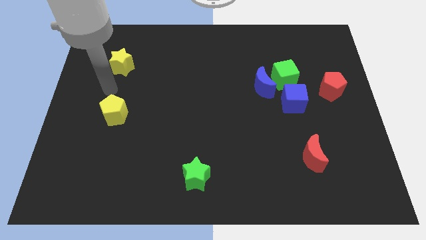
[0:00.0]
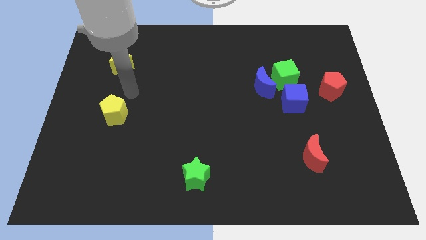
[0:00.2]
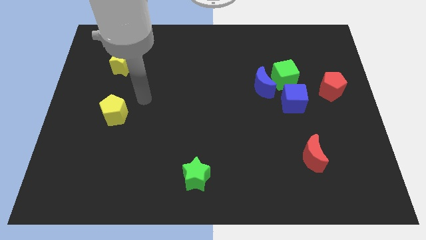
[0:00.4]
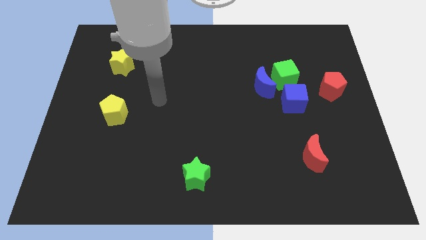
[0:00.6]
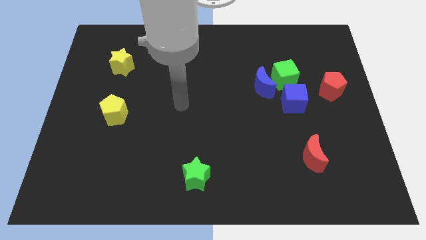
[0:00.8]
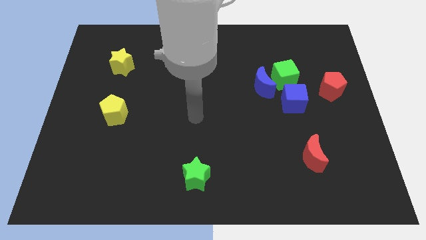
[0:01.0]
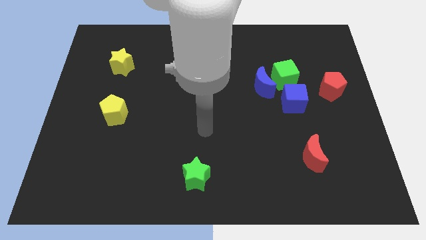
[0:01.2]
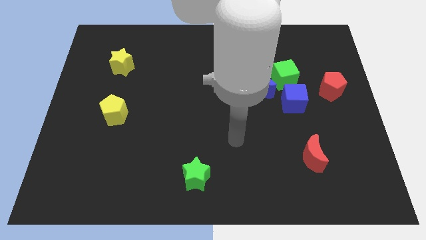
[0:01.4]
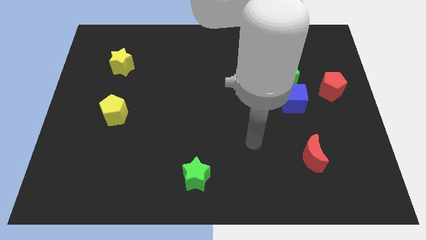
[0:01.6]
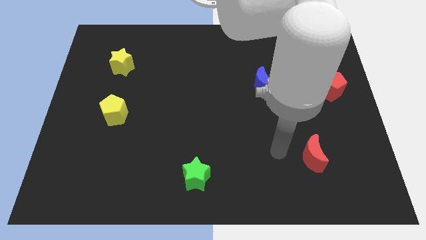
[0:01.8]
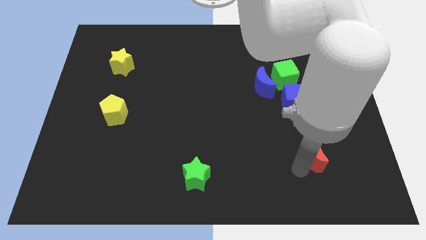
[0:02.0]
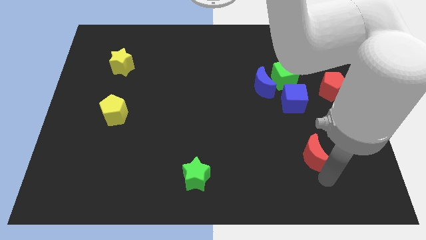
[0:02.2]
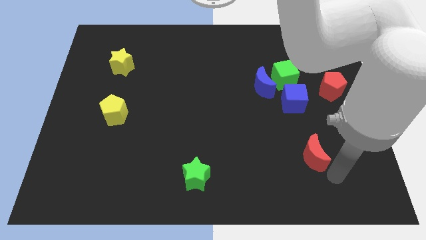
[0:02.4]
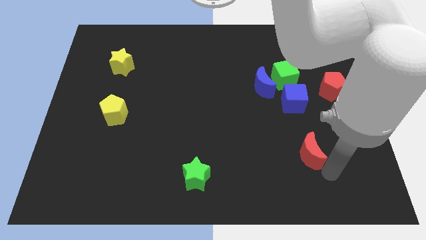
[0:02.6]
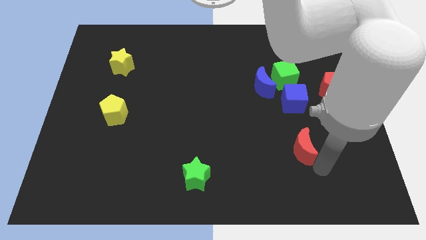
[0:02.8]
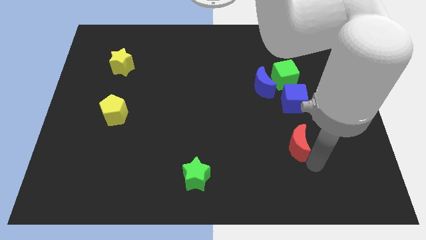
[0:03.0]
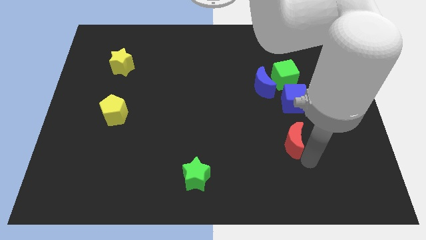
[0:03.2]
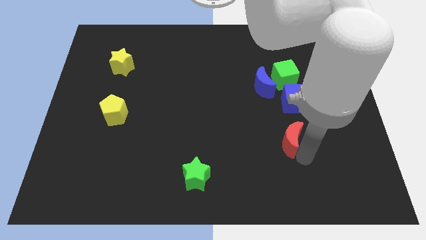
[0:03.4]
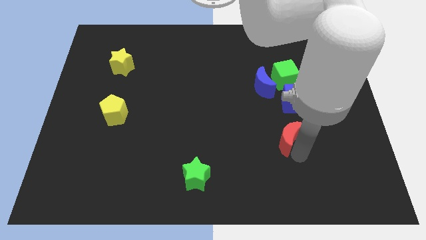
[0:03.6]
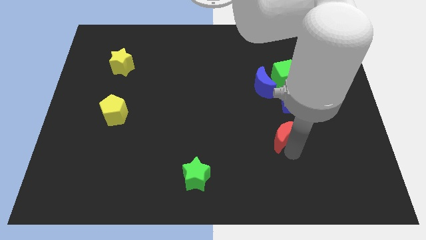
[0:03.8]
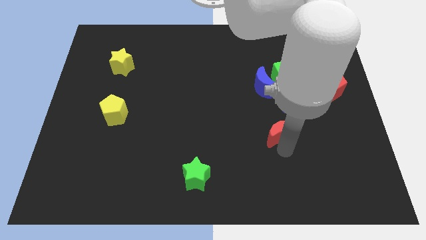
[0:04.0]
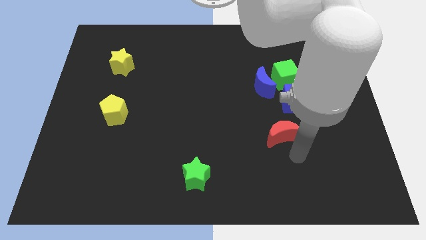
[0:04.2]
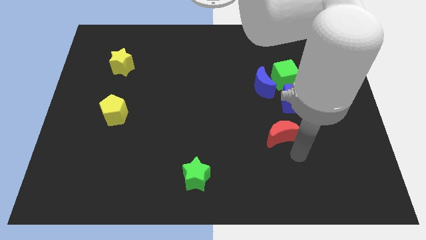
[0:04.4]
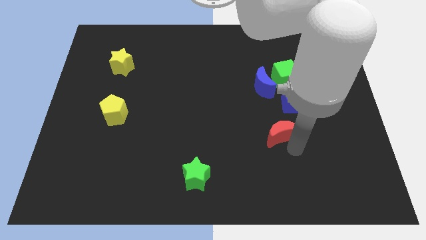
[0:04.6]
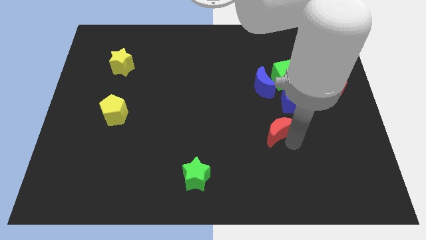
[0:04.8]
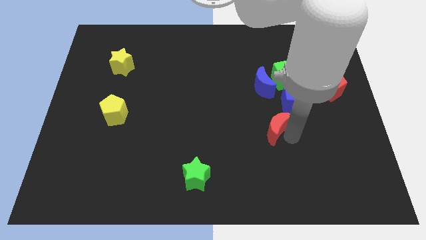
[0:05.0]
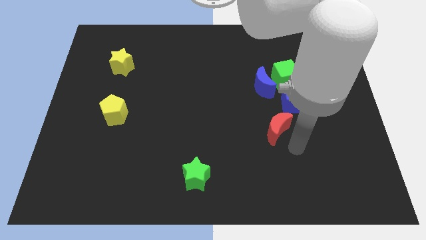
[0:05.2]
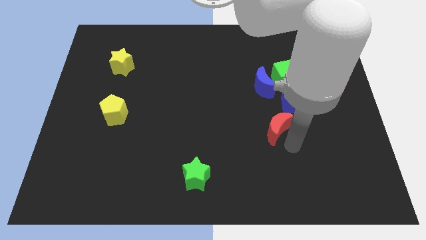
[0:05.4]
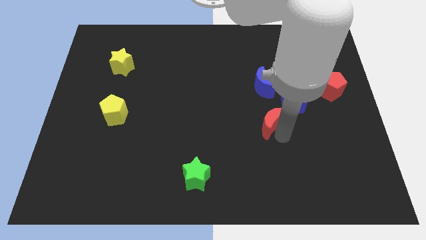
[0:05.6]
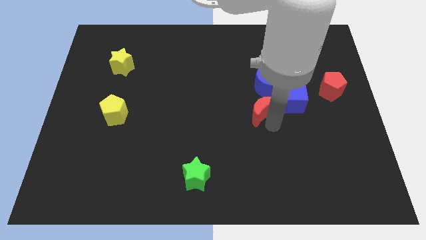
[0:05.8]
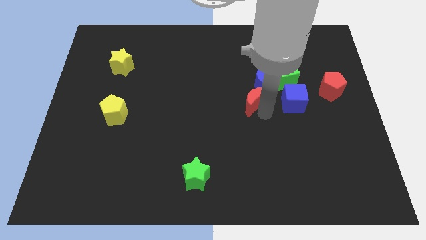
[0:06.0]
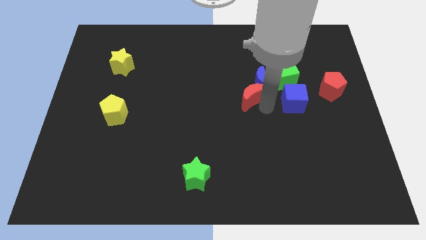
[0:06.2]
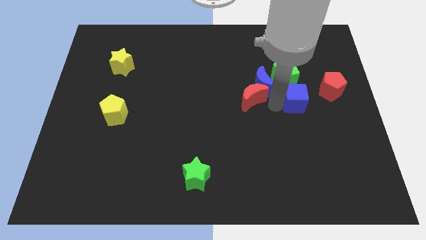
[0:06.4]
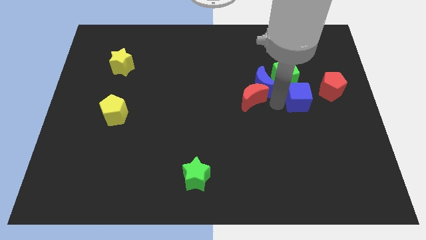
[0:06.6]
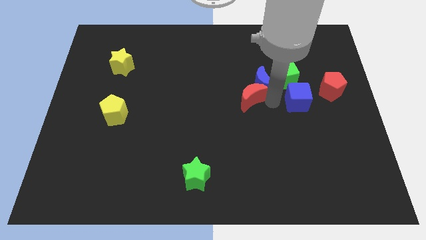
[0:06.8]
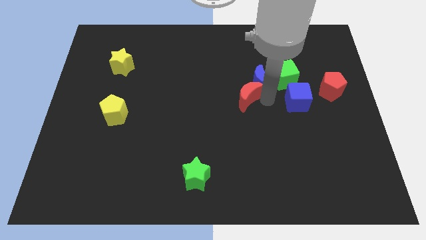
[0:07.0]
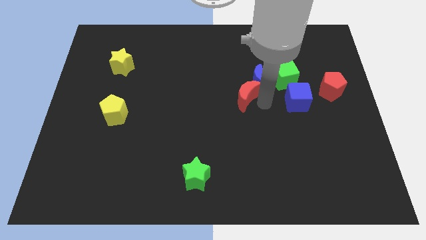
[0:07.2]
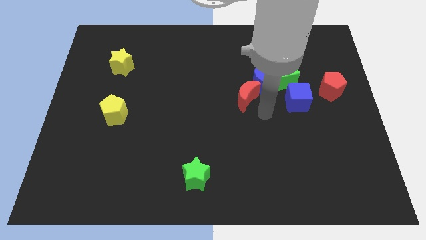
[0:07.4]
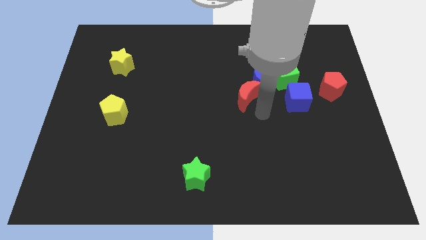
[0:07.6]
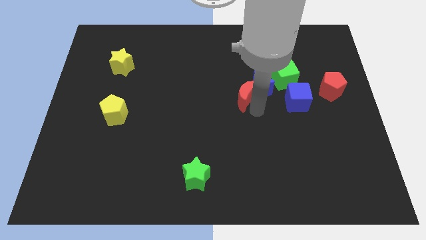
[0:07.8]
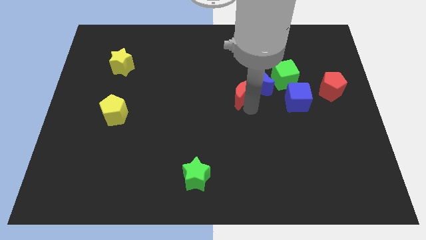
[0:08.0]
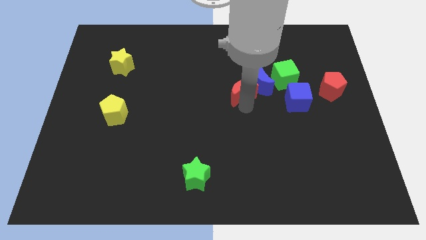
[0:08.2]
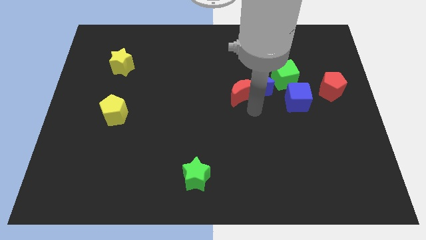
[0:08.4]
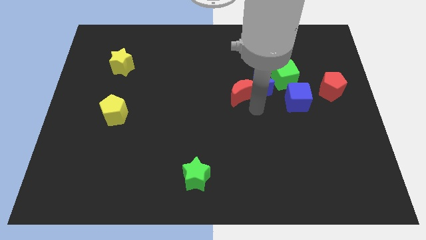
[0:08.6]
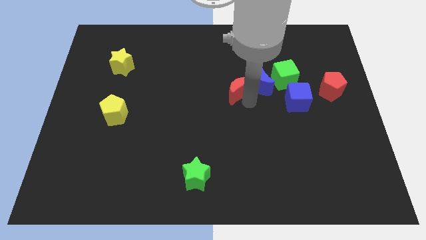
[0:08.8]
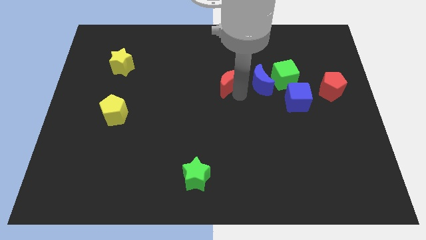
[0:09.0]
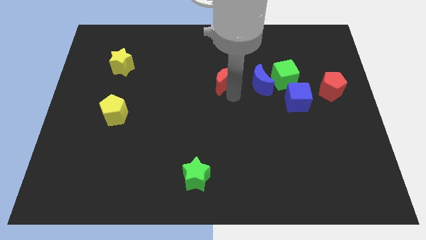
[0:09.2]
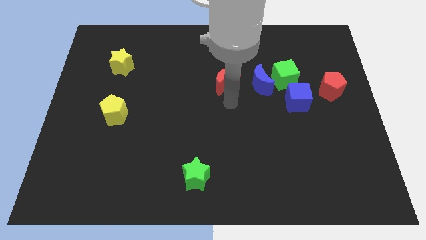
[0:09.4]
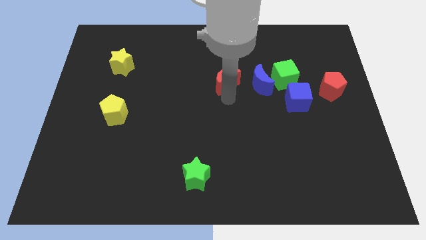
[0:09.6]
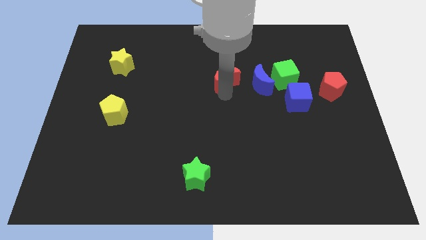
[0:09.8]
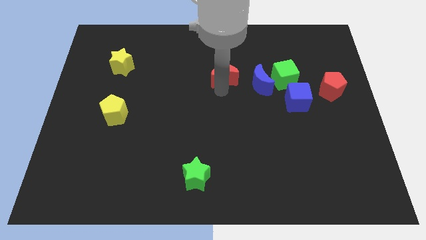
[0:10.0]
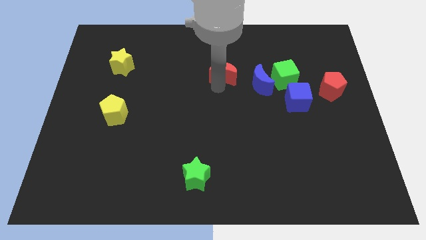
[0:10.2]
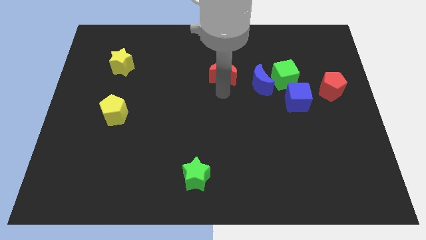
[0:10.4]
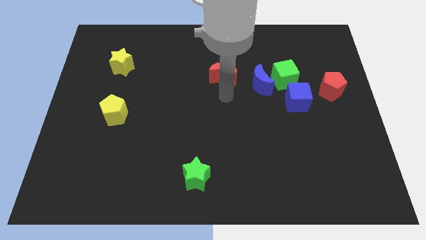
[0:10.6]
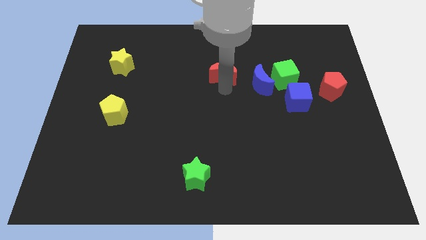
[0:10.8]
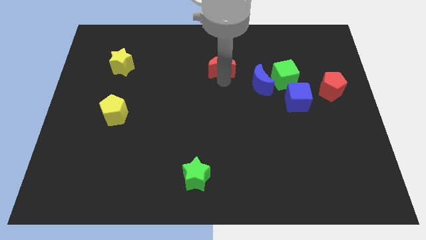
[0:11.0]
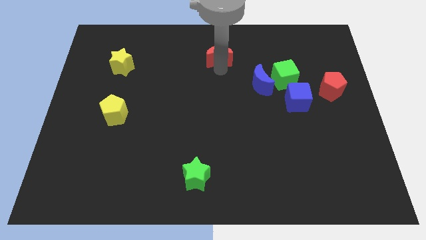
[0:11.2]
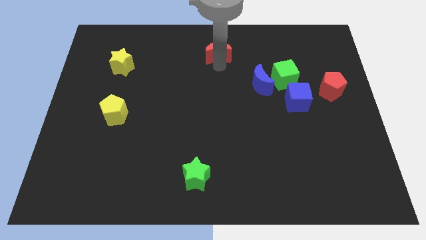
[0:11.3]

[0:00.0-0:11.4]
move the red moon to the top
